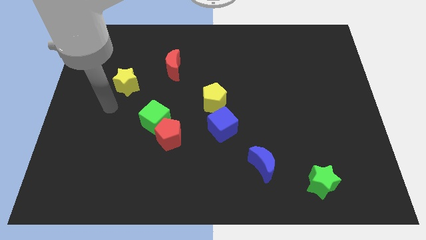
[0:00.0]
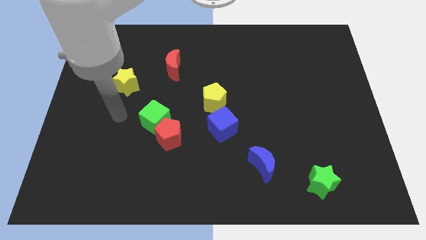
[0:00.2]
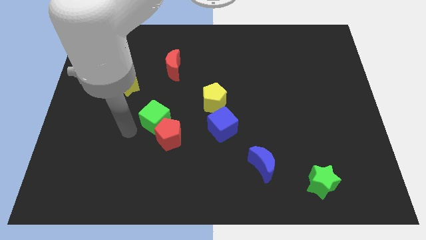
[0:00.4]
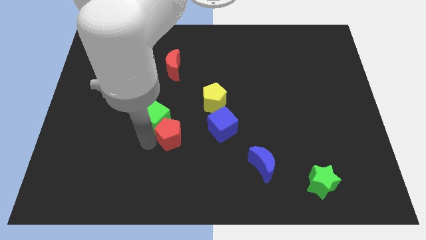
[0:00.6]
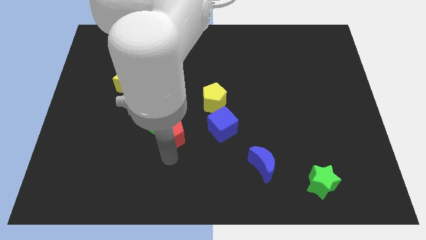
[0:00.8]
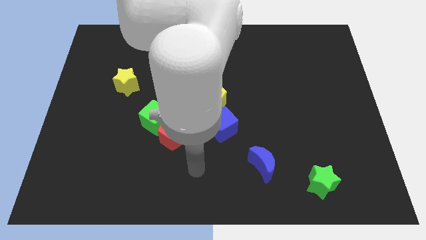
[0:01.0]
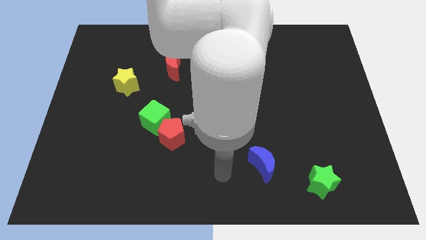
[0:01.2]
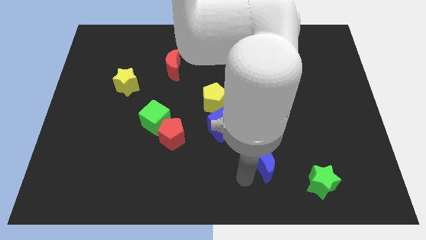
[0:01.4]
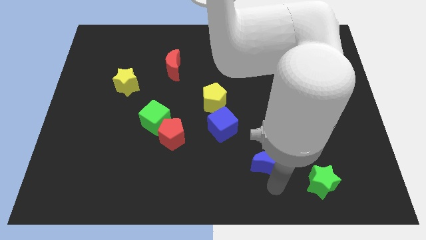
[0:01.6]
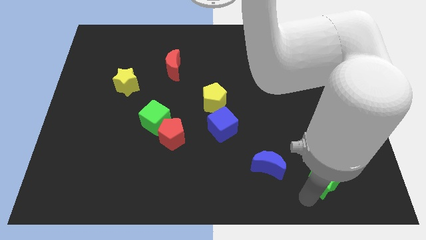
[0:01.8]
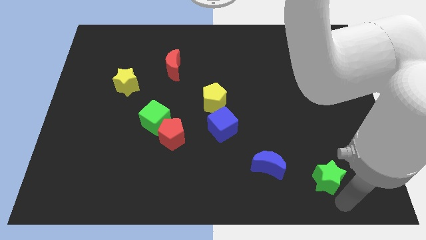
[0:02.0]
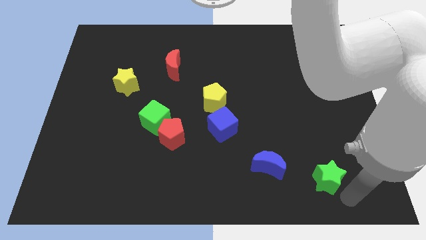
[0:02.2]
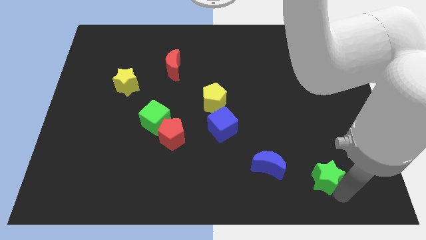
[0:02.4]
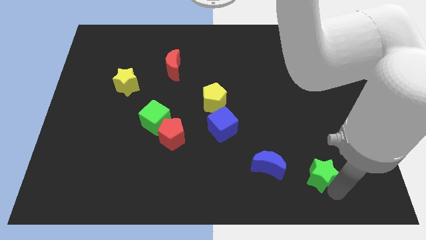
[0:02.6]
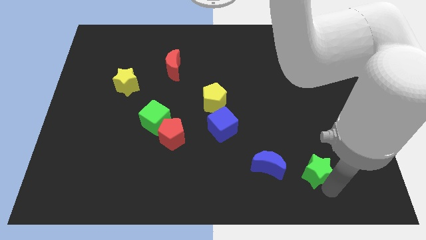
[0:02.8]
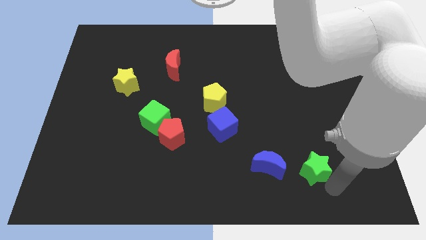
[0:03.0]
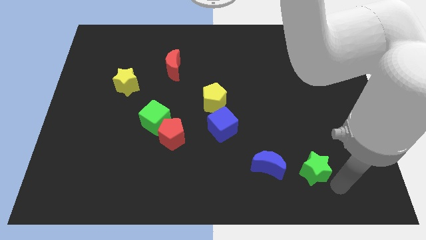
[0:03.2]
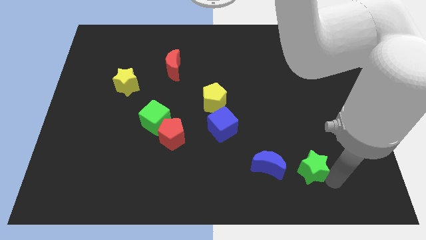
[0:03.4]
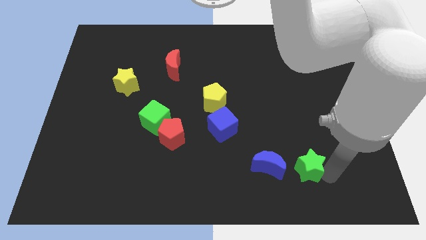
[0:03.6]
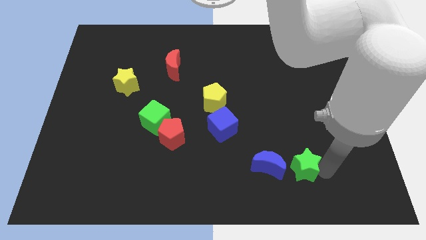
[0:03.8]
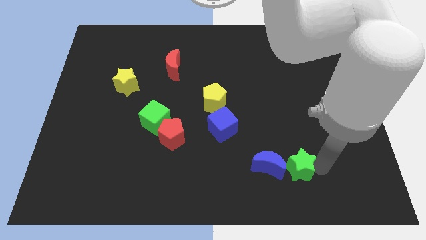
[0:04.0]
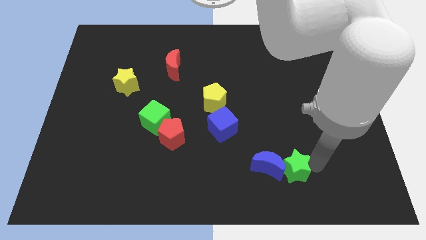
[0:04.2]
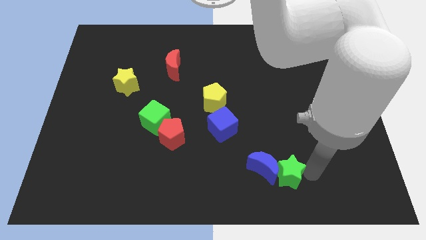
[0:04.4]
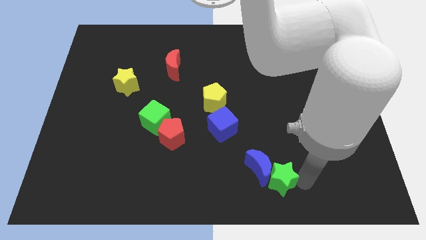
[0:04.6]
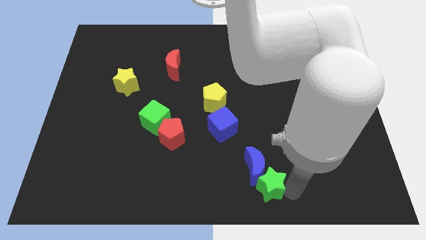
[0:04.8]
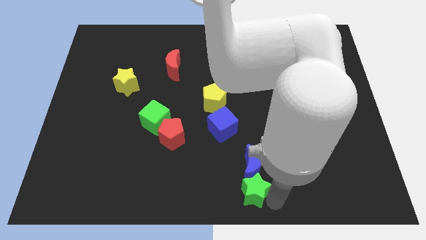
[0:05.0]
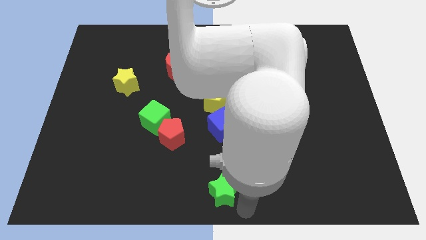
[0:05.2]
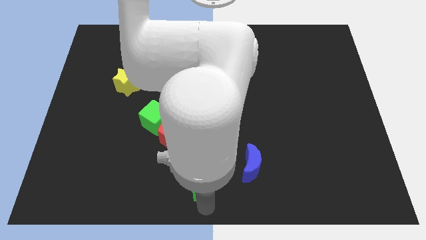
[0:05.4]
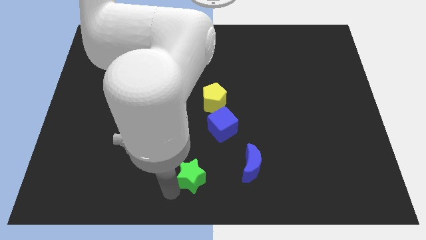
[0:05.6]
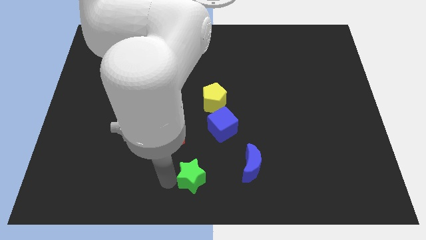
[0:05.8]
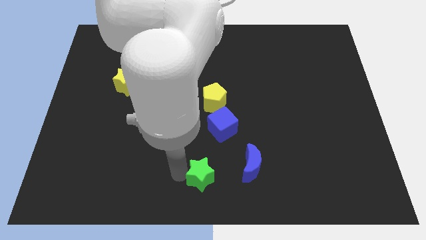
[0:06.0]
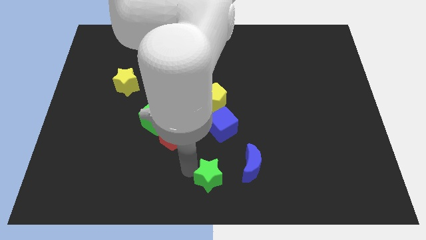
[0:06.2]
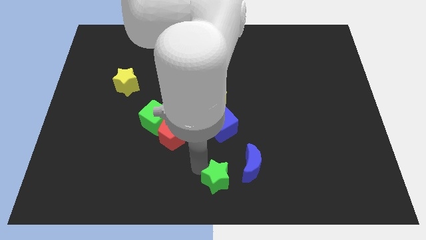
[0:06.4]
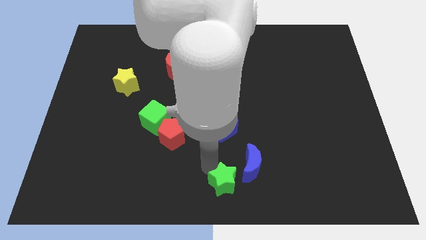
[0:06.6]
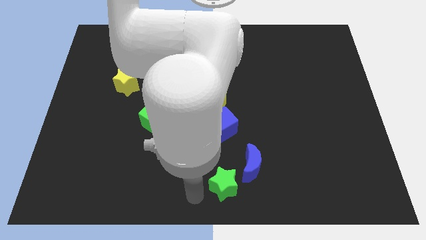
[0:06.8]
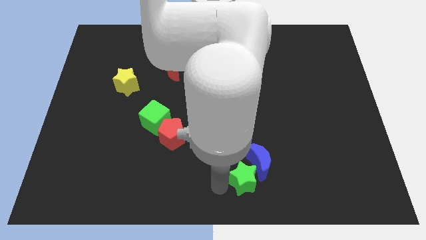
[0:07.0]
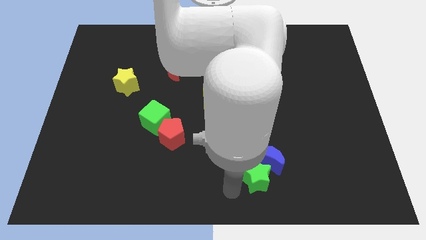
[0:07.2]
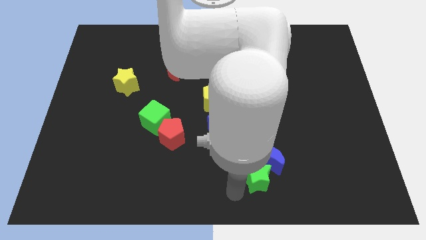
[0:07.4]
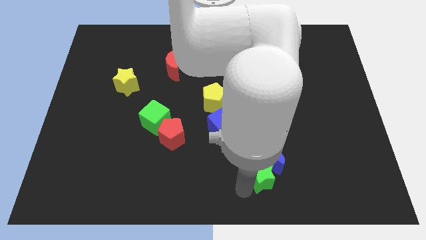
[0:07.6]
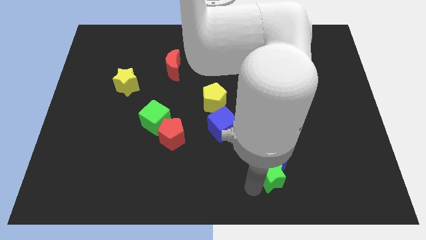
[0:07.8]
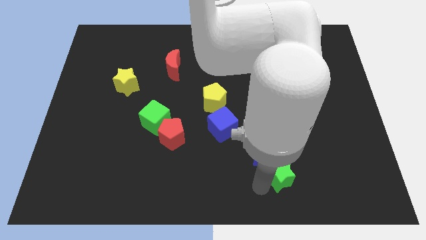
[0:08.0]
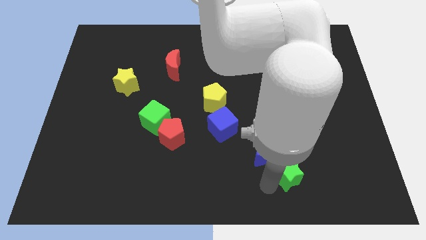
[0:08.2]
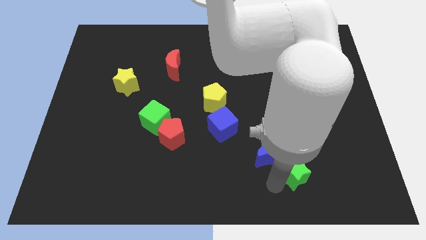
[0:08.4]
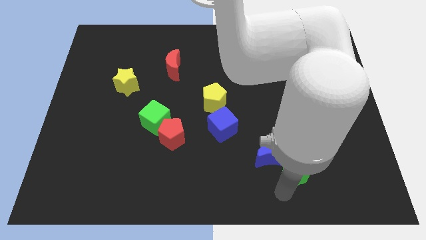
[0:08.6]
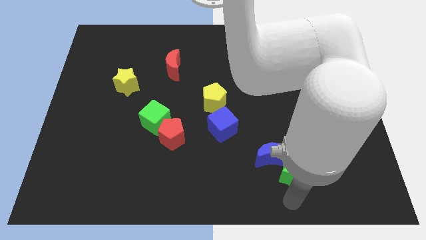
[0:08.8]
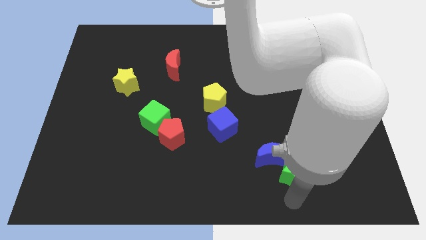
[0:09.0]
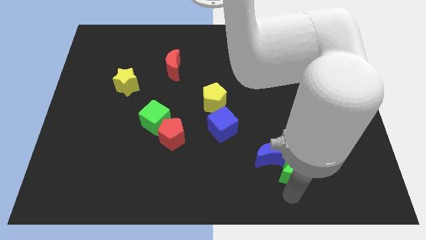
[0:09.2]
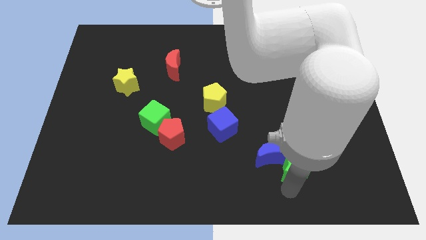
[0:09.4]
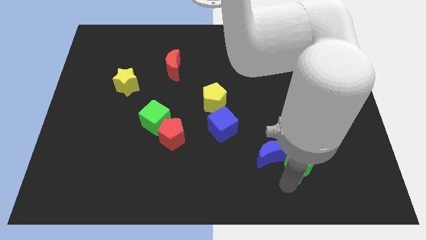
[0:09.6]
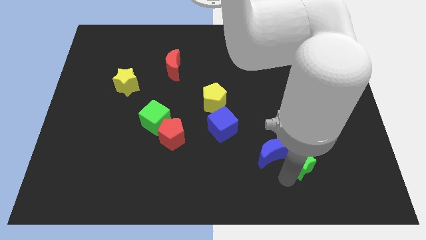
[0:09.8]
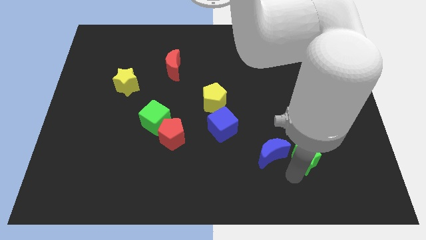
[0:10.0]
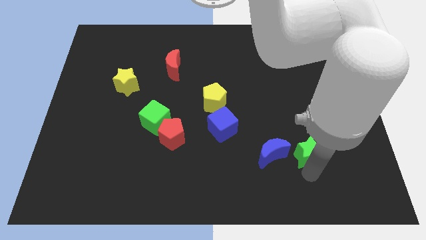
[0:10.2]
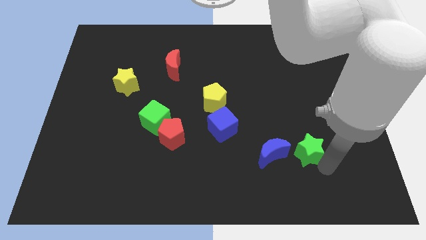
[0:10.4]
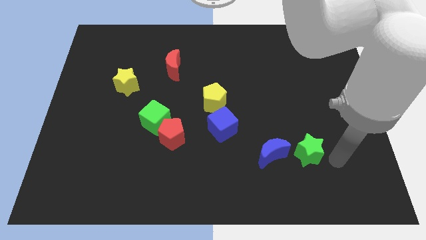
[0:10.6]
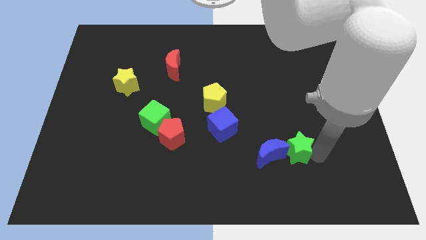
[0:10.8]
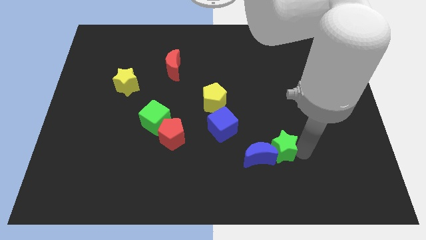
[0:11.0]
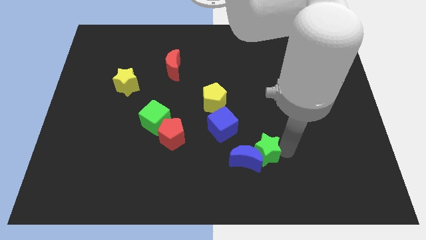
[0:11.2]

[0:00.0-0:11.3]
slide the green star to the bottom right of the blue cube

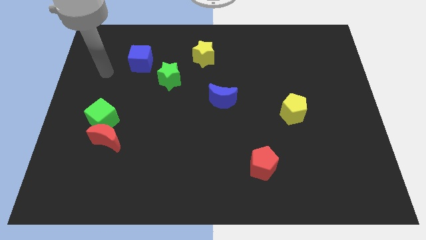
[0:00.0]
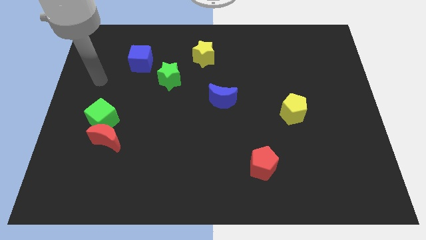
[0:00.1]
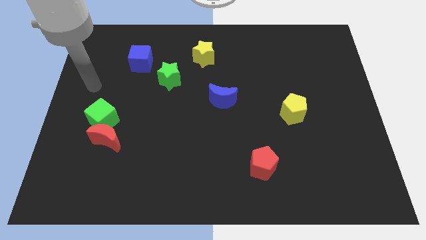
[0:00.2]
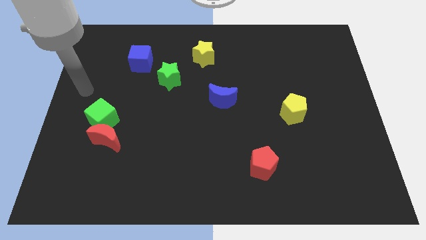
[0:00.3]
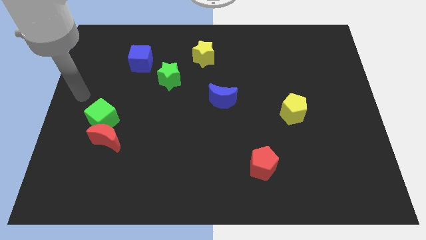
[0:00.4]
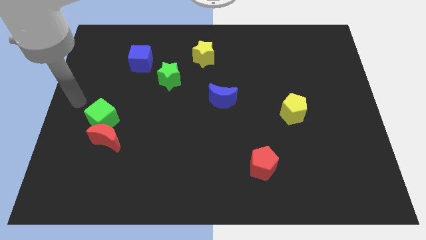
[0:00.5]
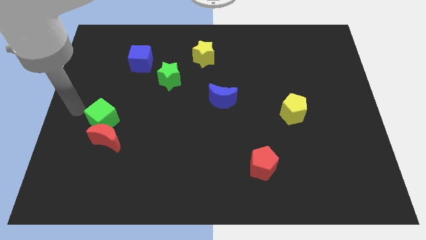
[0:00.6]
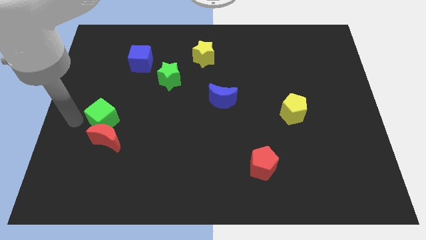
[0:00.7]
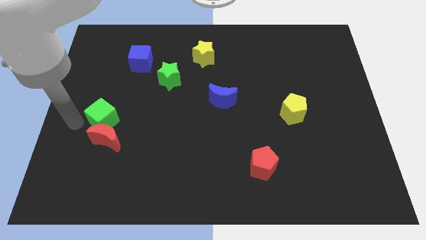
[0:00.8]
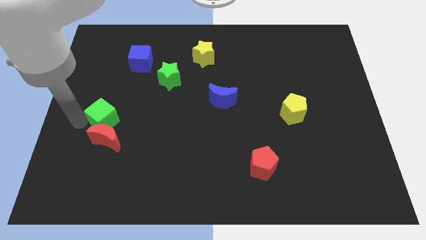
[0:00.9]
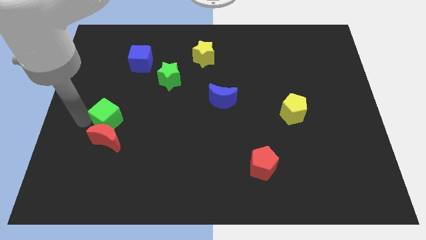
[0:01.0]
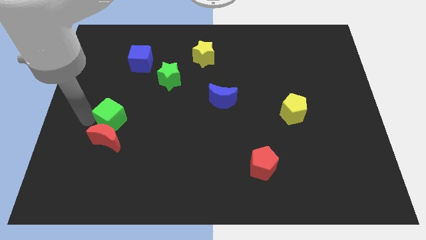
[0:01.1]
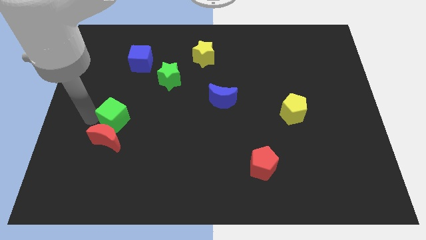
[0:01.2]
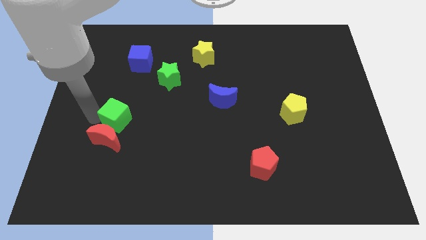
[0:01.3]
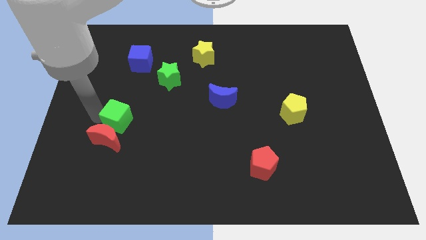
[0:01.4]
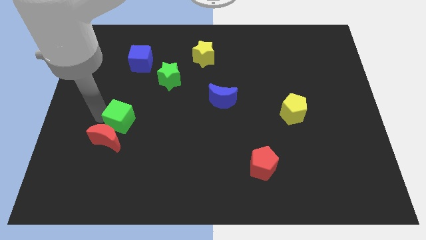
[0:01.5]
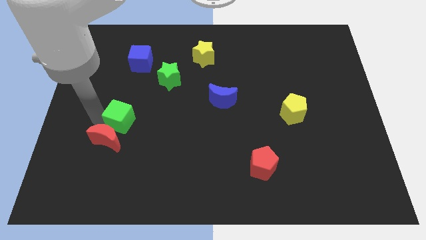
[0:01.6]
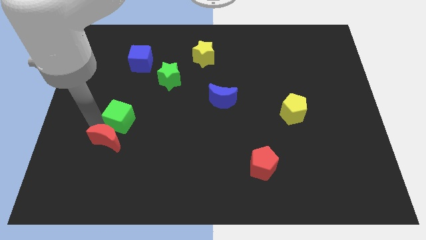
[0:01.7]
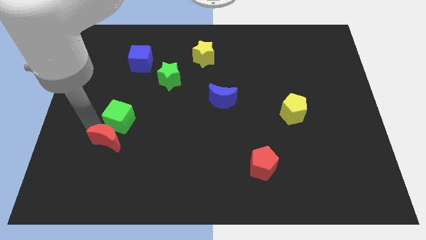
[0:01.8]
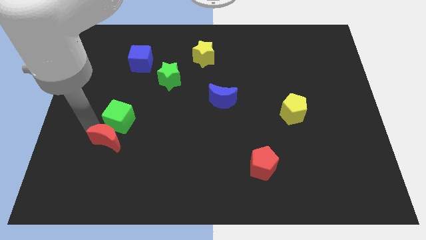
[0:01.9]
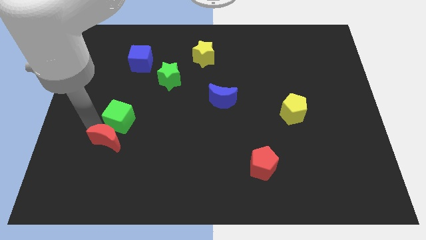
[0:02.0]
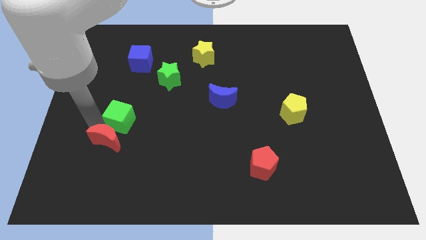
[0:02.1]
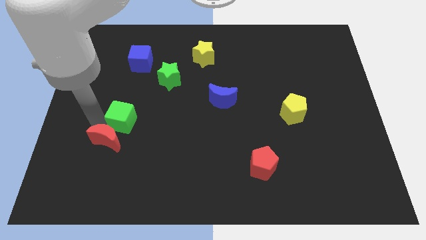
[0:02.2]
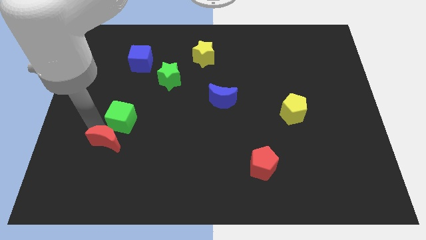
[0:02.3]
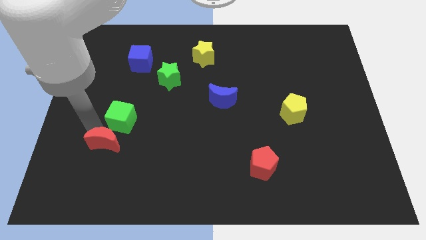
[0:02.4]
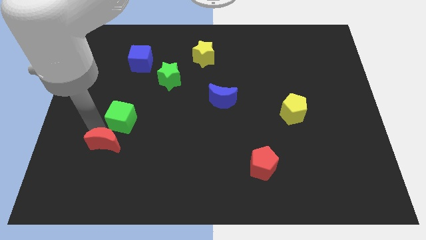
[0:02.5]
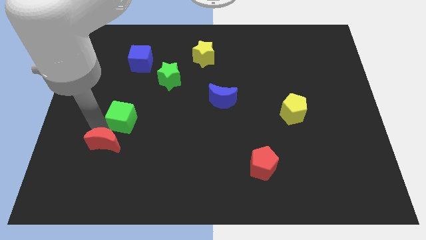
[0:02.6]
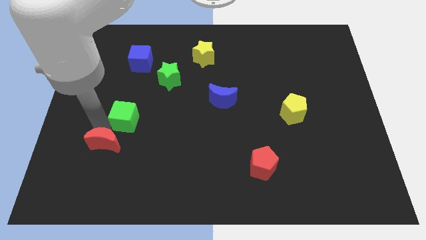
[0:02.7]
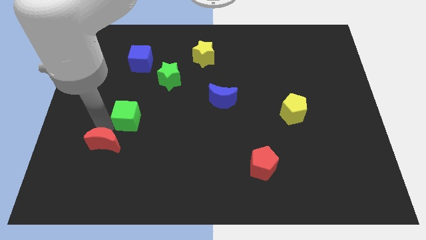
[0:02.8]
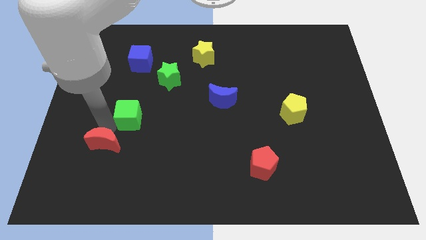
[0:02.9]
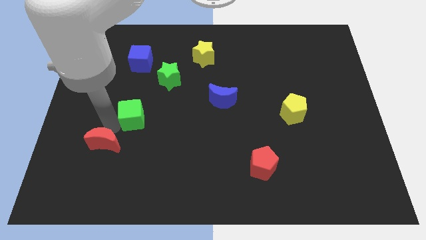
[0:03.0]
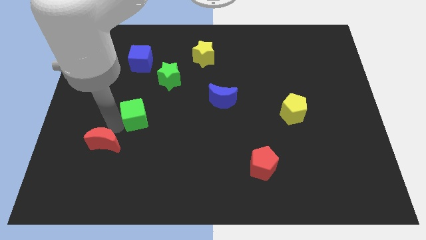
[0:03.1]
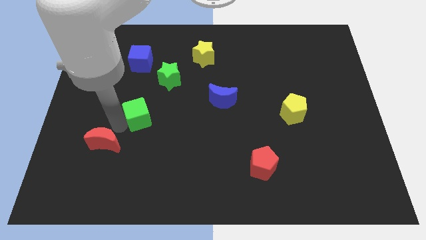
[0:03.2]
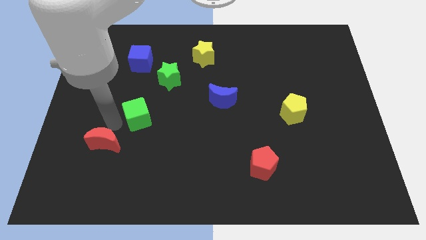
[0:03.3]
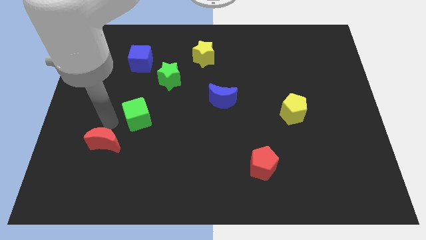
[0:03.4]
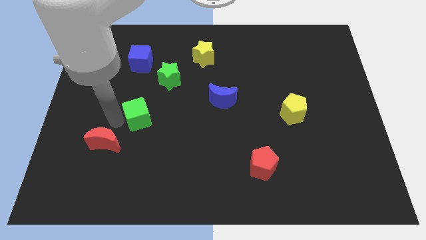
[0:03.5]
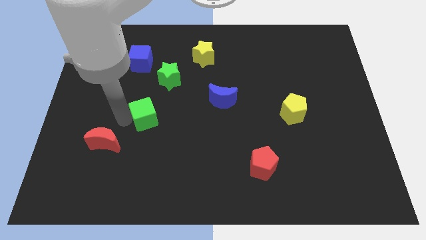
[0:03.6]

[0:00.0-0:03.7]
slide the green cube to the bottom of the green star
